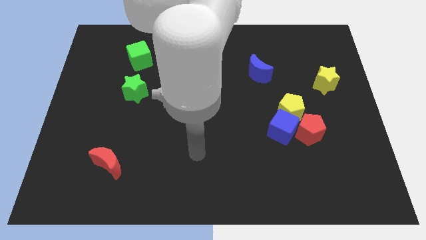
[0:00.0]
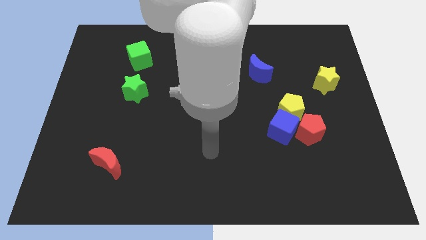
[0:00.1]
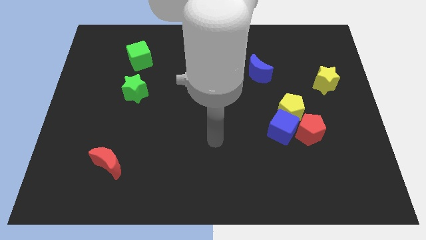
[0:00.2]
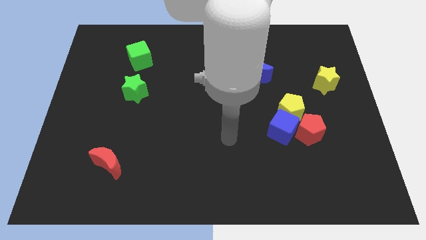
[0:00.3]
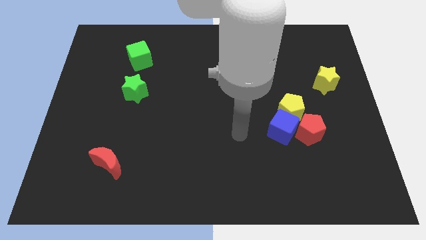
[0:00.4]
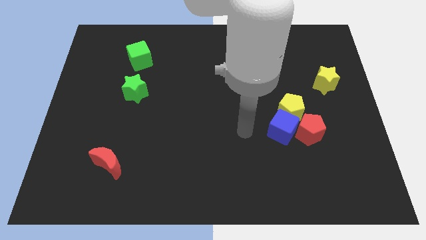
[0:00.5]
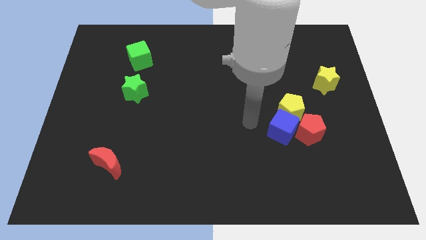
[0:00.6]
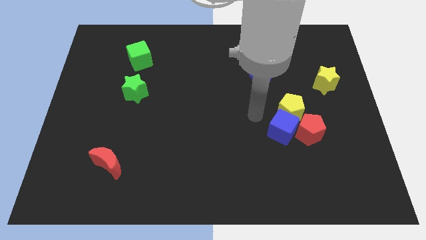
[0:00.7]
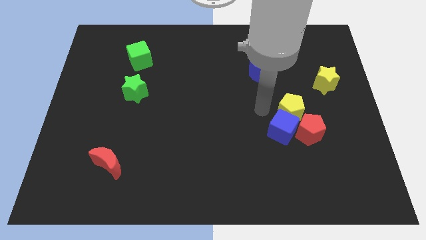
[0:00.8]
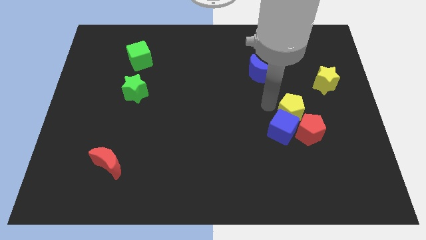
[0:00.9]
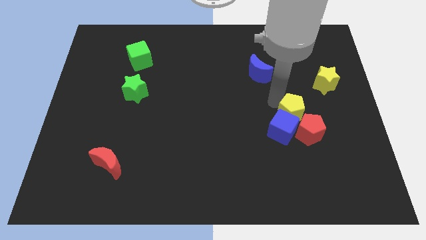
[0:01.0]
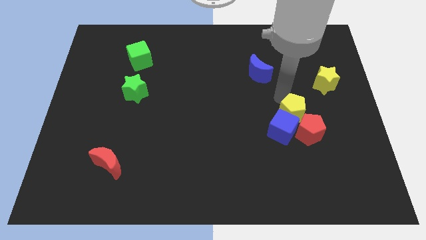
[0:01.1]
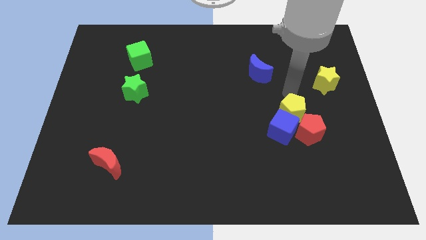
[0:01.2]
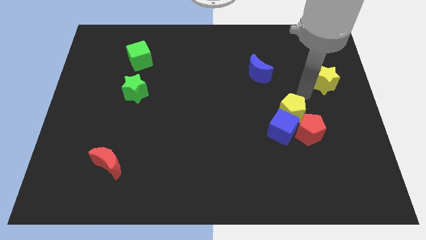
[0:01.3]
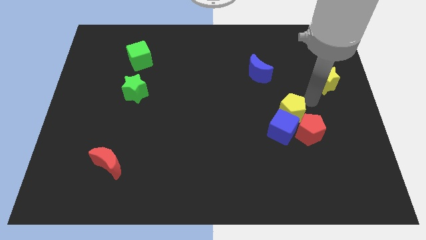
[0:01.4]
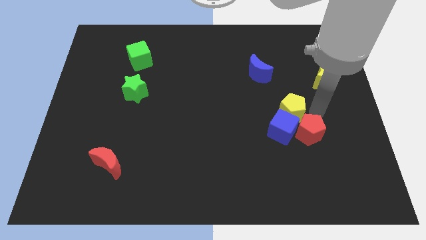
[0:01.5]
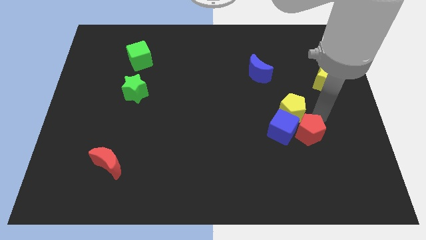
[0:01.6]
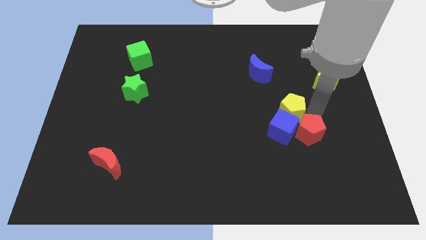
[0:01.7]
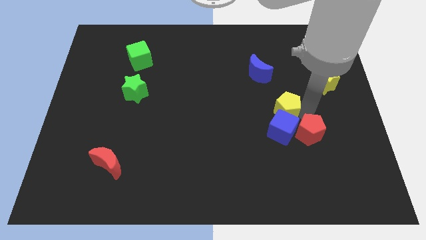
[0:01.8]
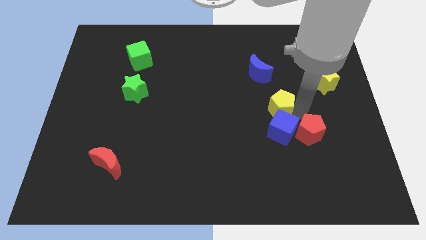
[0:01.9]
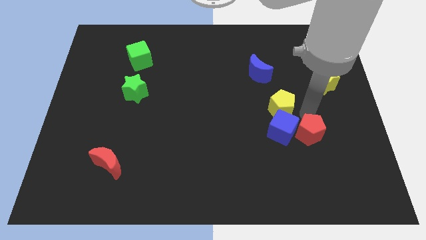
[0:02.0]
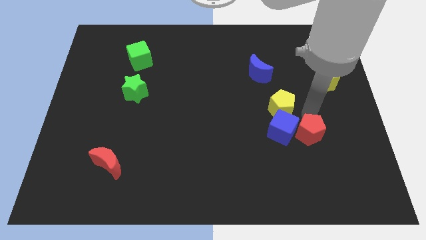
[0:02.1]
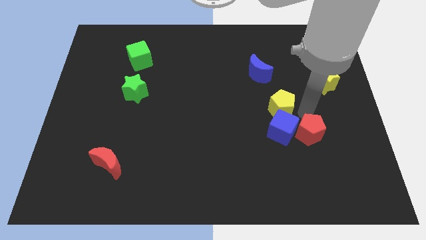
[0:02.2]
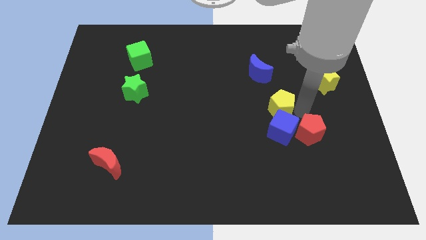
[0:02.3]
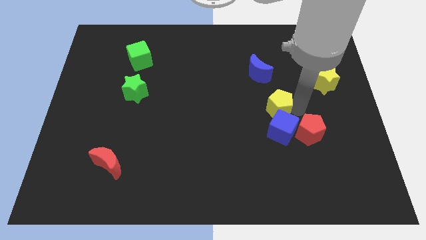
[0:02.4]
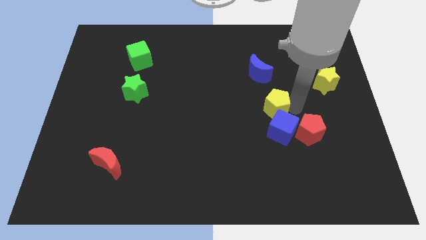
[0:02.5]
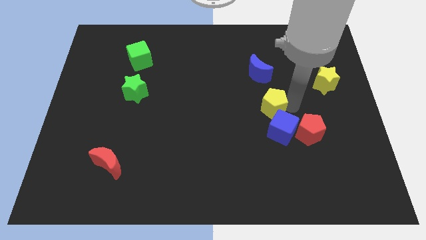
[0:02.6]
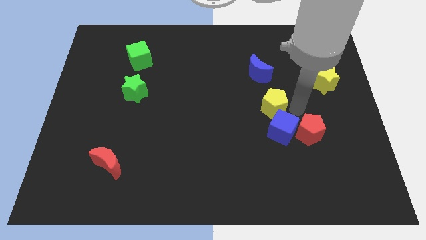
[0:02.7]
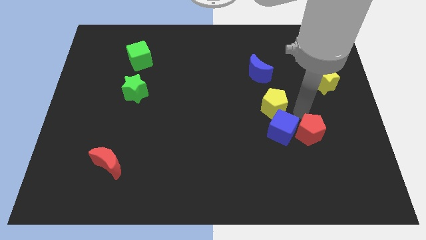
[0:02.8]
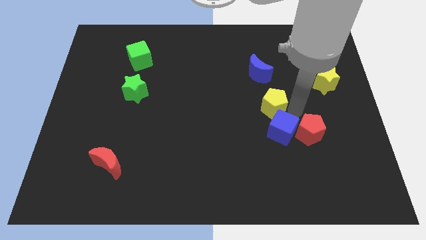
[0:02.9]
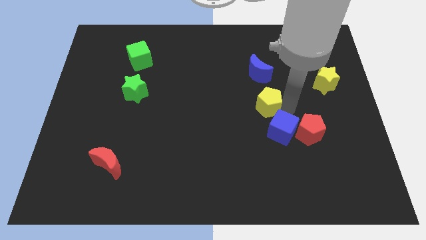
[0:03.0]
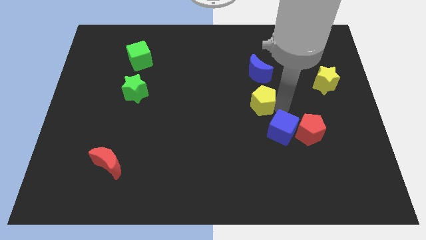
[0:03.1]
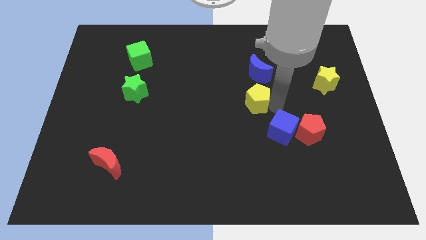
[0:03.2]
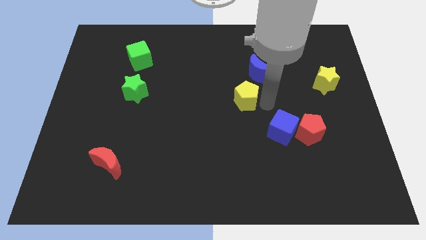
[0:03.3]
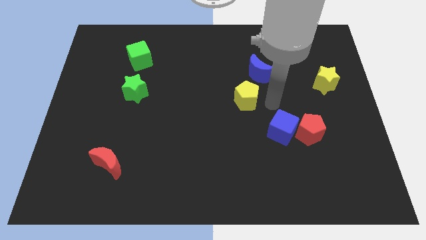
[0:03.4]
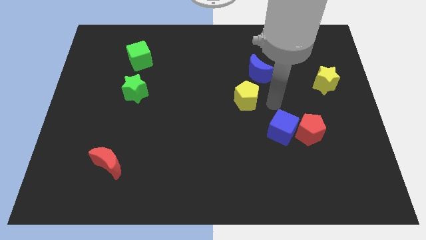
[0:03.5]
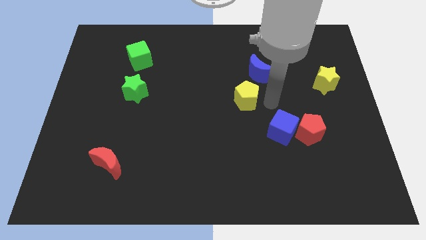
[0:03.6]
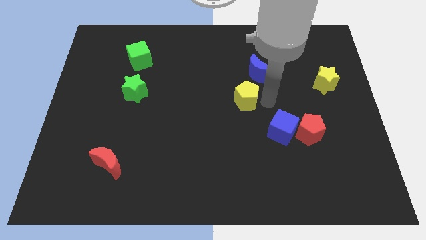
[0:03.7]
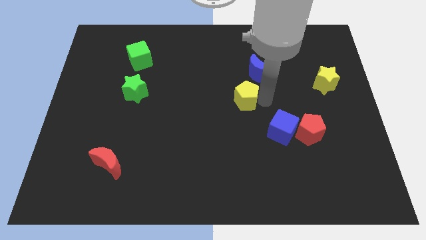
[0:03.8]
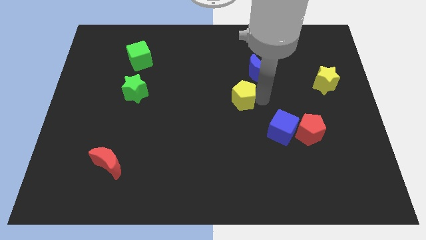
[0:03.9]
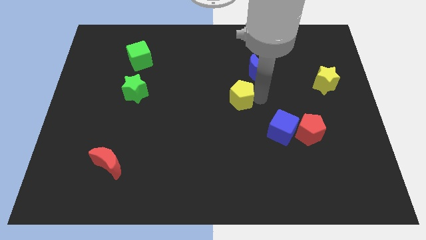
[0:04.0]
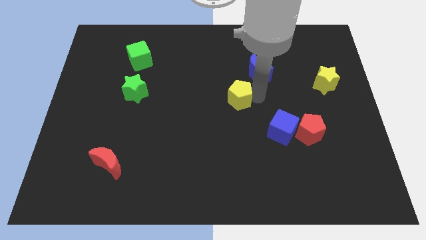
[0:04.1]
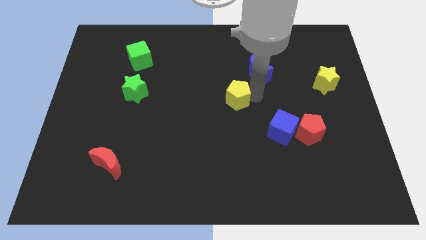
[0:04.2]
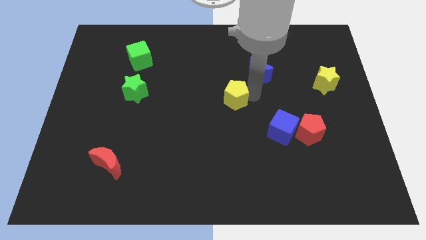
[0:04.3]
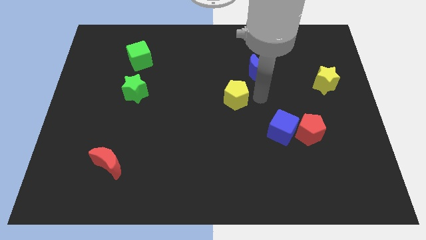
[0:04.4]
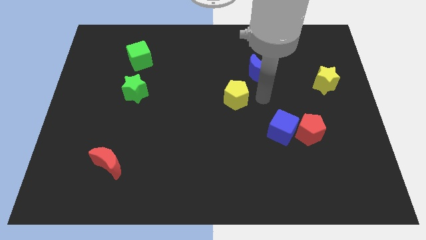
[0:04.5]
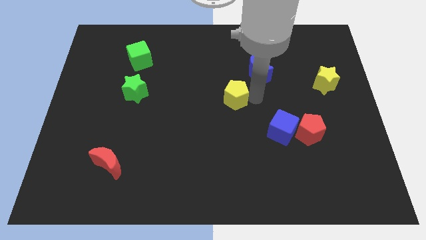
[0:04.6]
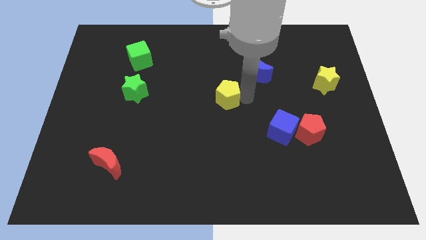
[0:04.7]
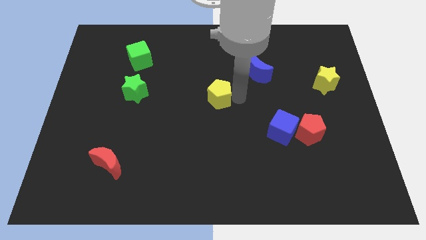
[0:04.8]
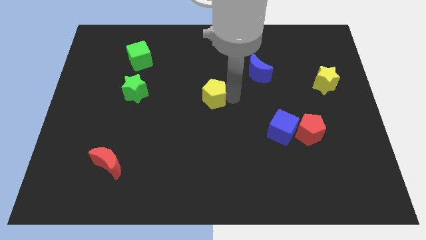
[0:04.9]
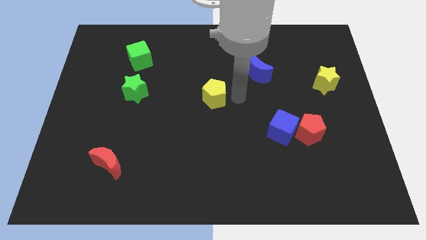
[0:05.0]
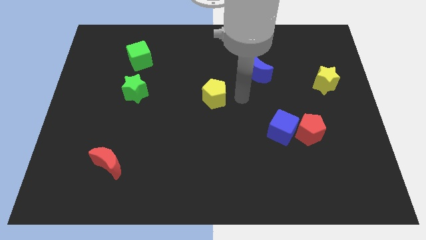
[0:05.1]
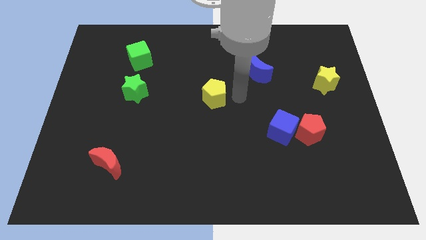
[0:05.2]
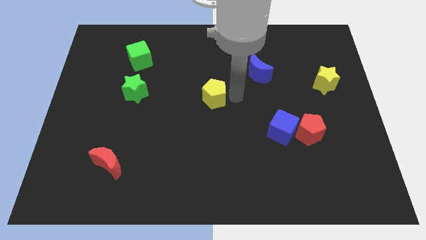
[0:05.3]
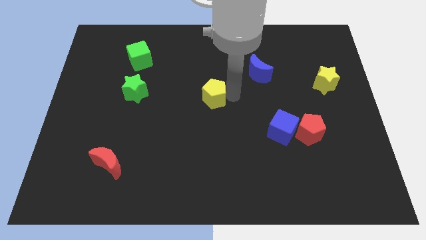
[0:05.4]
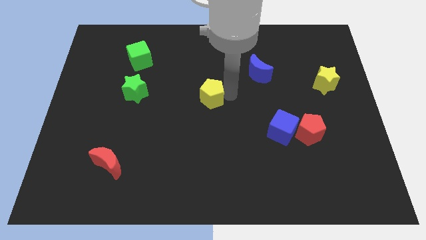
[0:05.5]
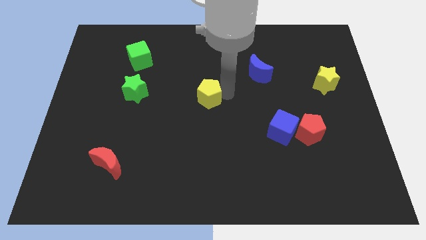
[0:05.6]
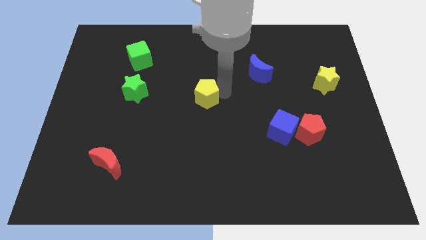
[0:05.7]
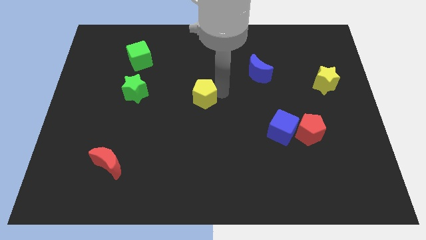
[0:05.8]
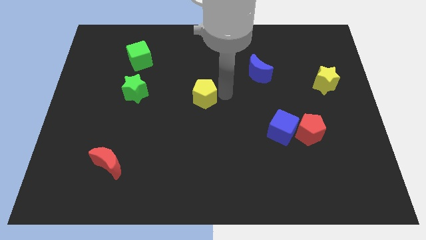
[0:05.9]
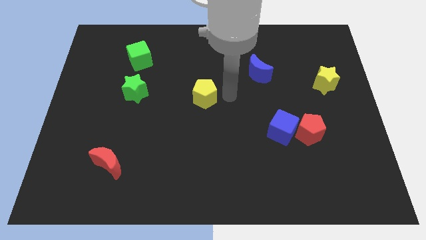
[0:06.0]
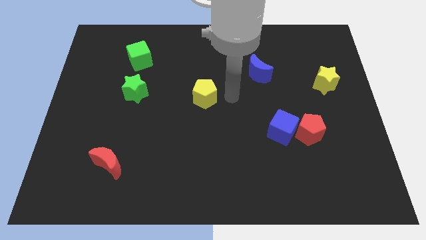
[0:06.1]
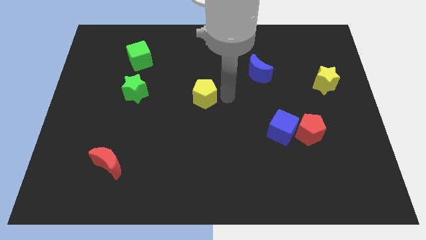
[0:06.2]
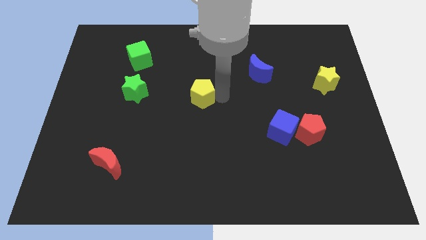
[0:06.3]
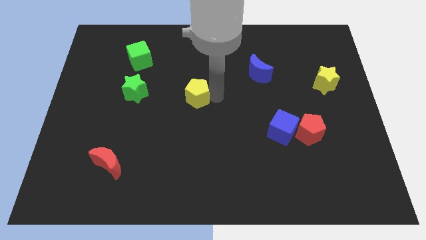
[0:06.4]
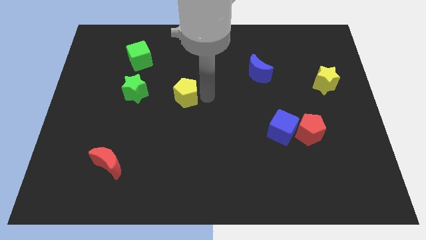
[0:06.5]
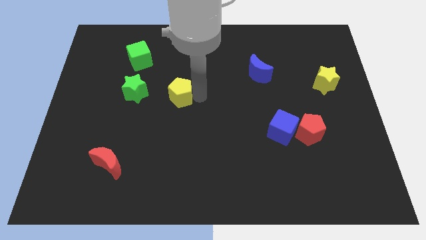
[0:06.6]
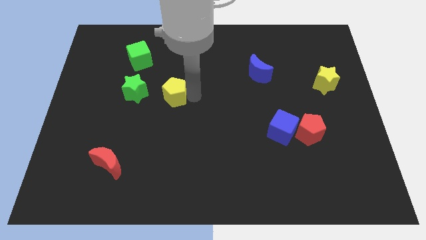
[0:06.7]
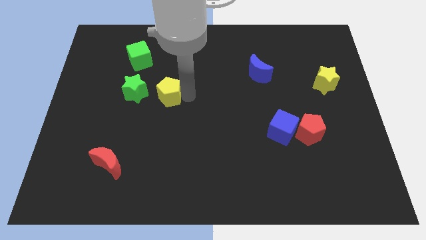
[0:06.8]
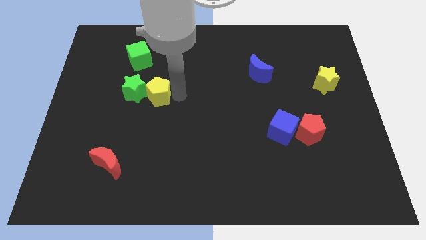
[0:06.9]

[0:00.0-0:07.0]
push the yellow pentagon towards the green star

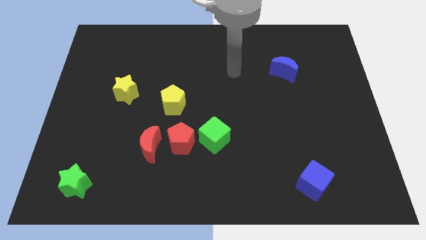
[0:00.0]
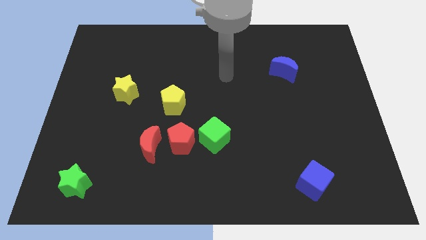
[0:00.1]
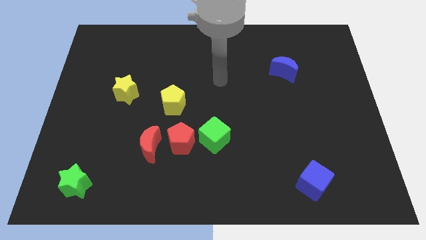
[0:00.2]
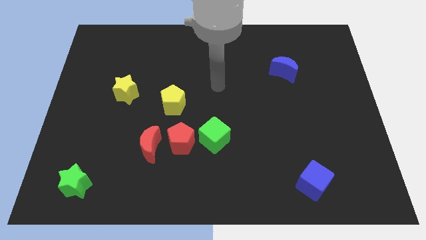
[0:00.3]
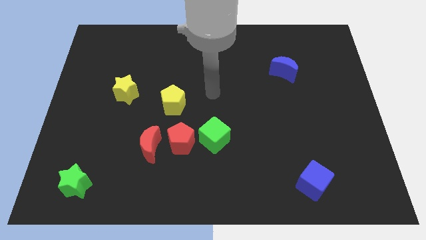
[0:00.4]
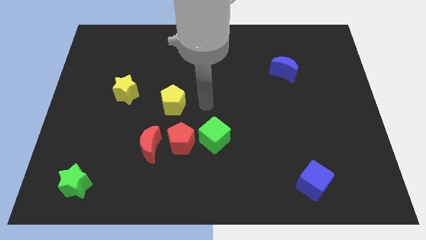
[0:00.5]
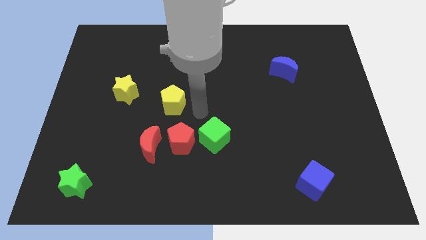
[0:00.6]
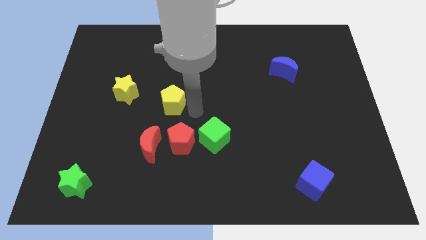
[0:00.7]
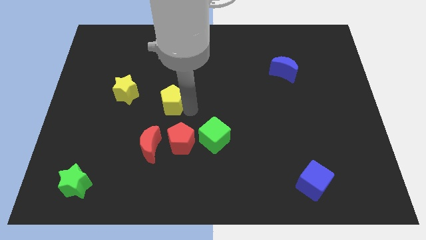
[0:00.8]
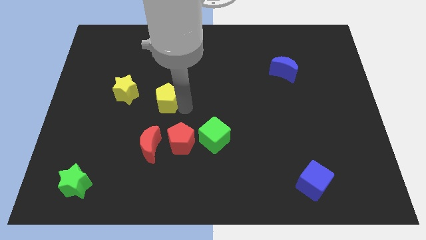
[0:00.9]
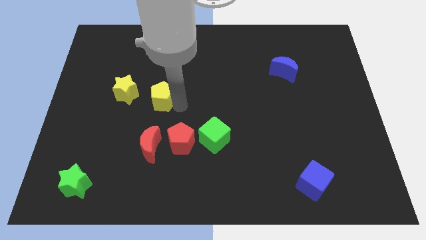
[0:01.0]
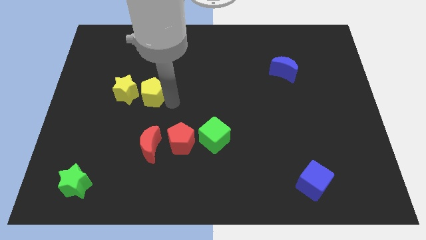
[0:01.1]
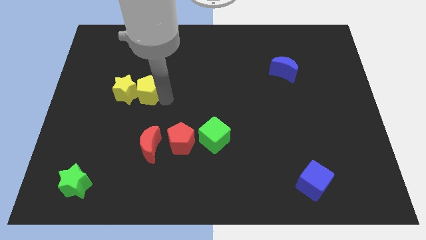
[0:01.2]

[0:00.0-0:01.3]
move the yellow pentagon next to the yellow star
